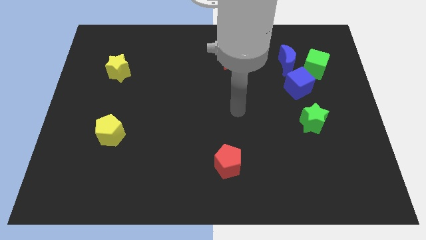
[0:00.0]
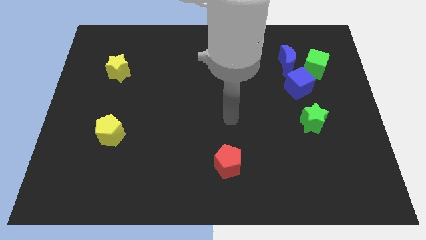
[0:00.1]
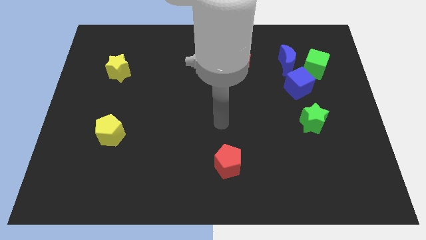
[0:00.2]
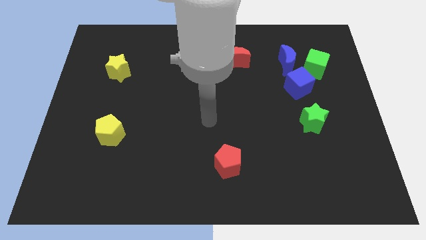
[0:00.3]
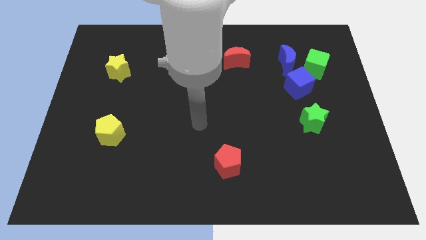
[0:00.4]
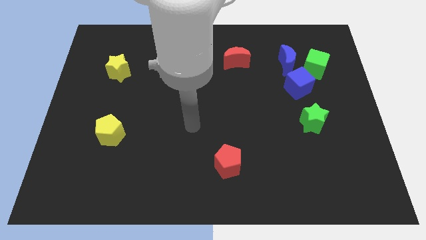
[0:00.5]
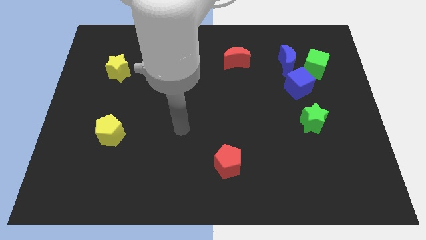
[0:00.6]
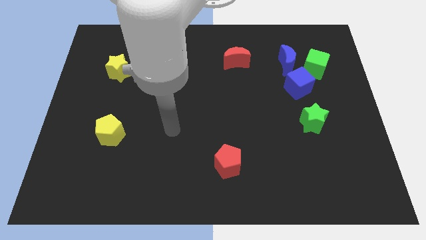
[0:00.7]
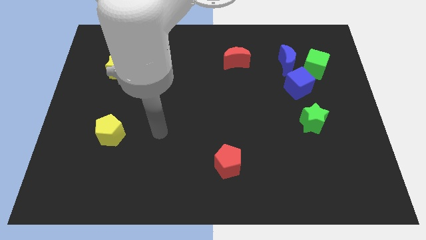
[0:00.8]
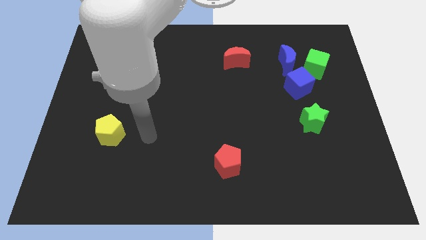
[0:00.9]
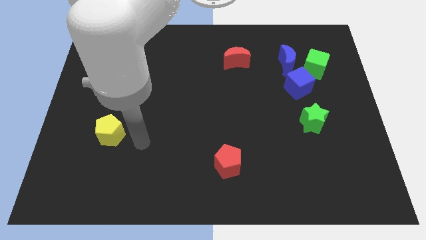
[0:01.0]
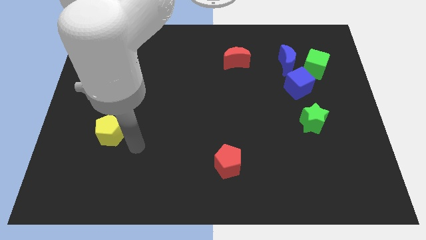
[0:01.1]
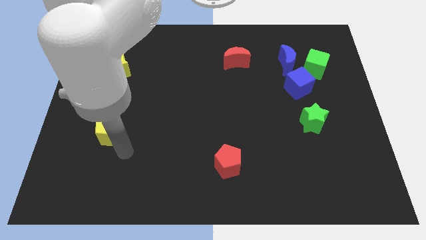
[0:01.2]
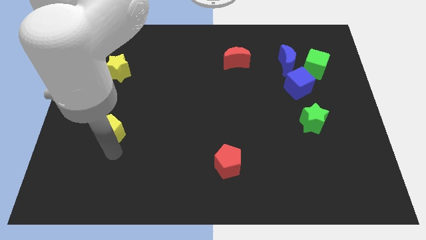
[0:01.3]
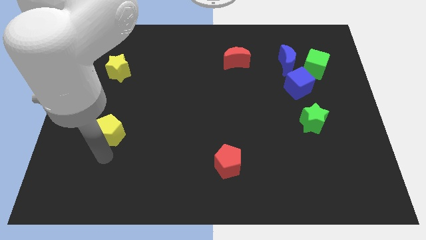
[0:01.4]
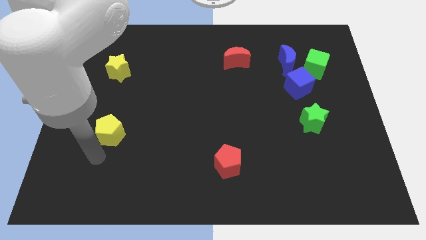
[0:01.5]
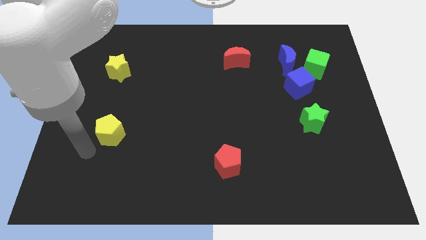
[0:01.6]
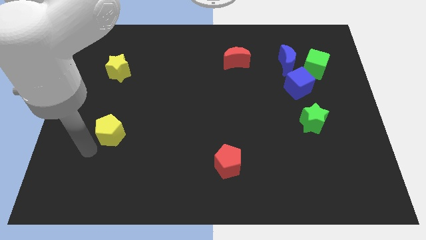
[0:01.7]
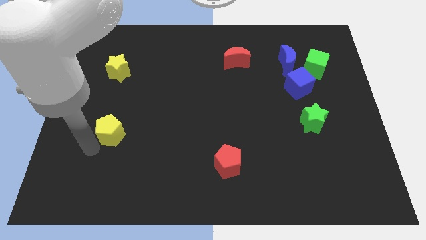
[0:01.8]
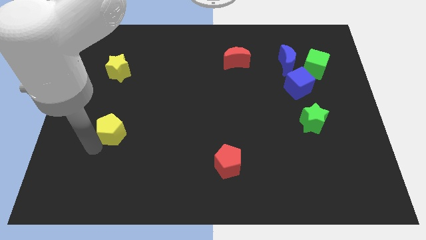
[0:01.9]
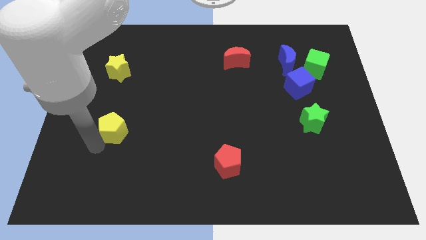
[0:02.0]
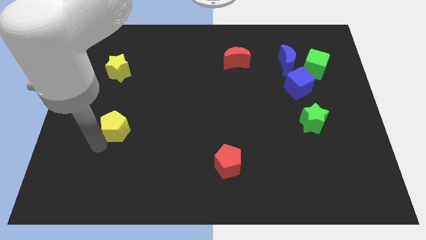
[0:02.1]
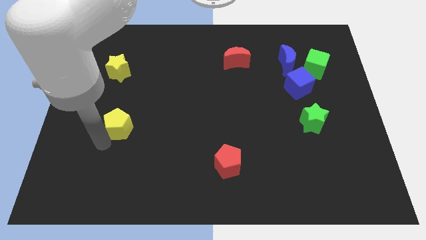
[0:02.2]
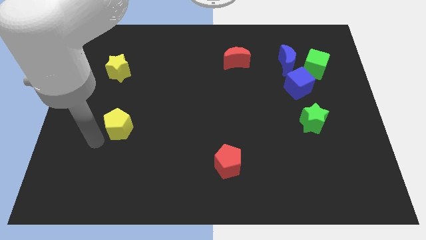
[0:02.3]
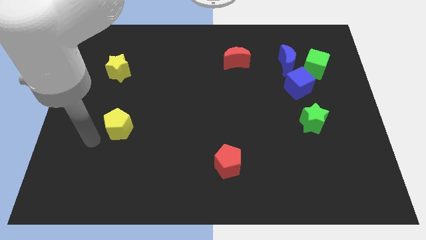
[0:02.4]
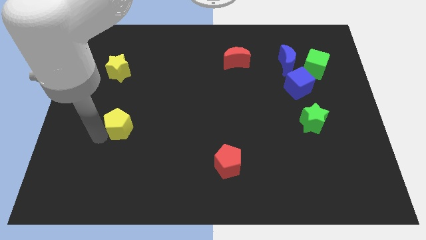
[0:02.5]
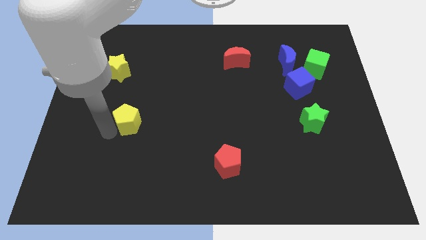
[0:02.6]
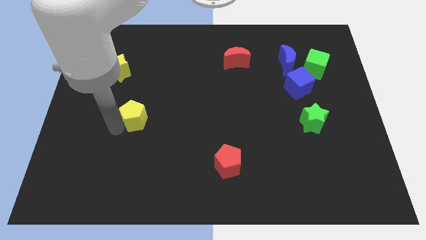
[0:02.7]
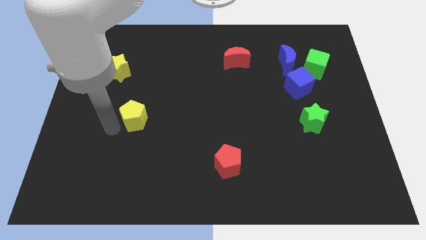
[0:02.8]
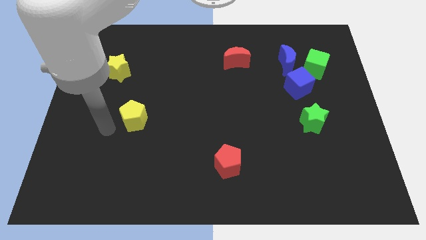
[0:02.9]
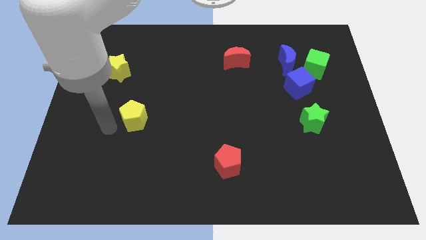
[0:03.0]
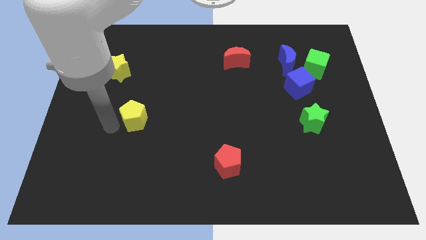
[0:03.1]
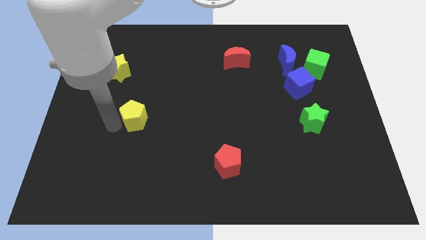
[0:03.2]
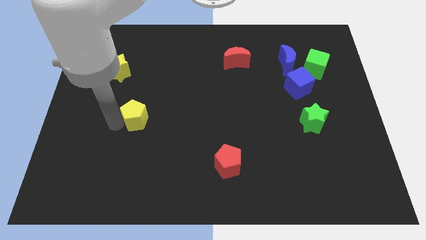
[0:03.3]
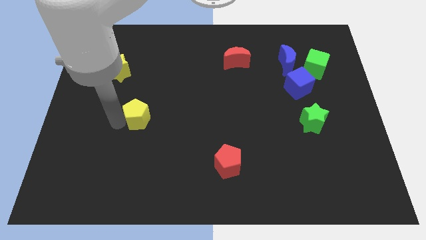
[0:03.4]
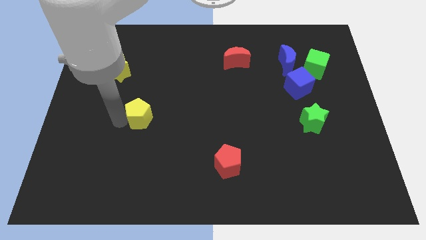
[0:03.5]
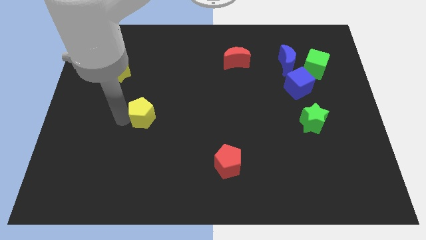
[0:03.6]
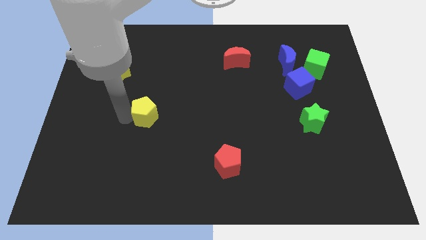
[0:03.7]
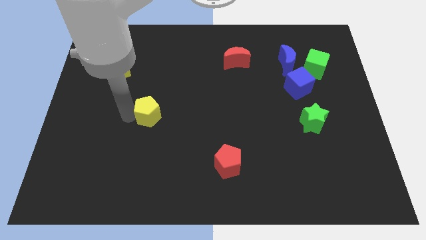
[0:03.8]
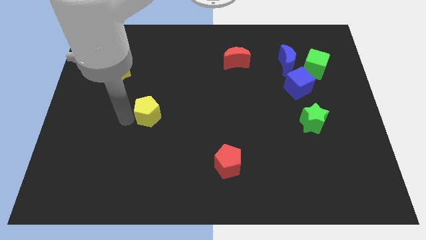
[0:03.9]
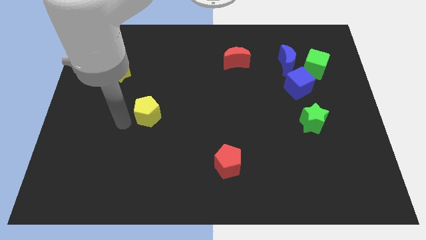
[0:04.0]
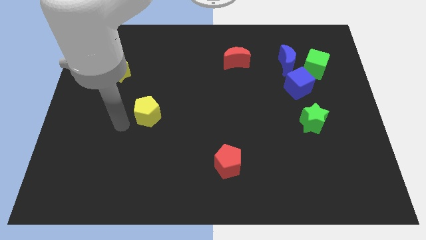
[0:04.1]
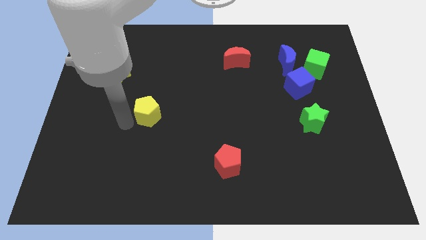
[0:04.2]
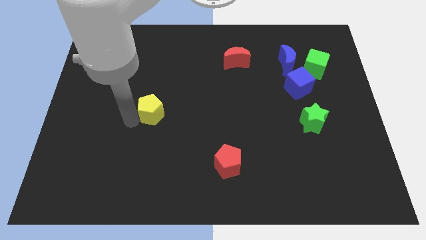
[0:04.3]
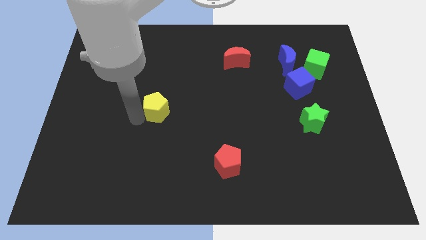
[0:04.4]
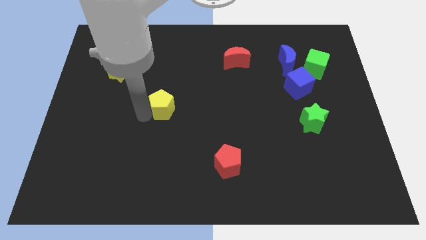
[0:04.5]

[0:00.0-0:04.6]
push the yellow pentagon to the center

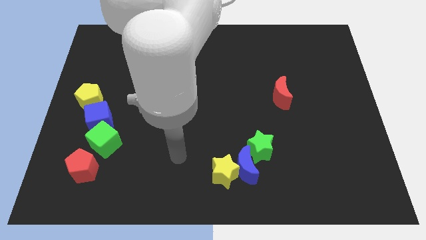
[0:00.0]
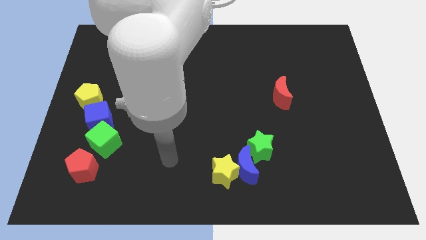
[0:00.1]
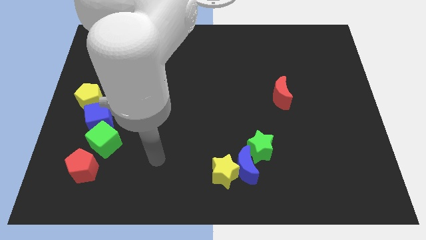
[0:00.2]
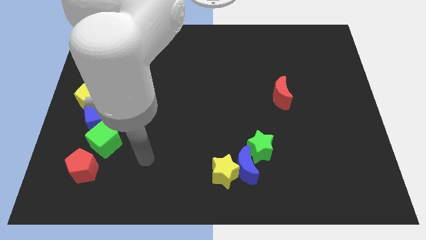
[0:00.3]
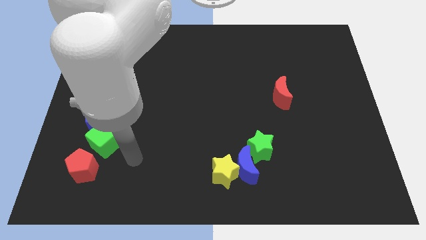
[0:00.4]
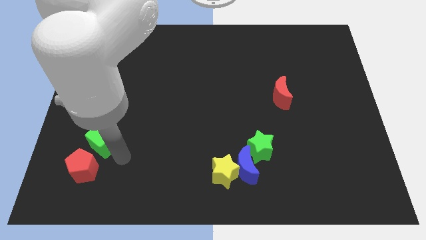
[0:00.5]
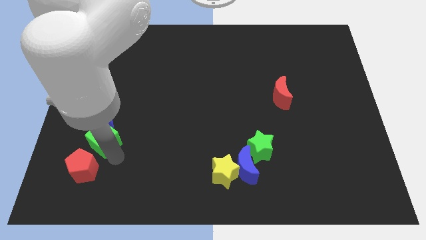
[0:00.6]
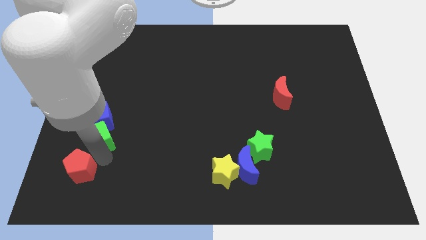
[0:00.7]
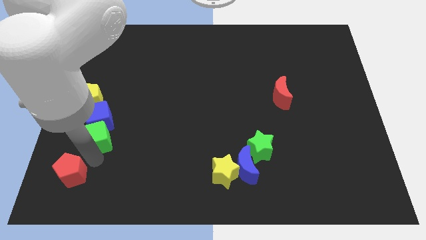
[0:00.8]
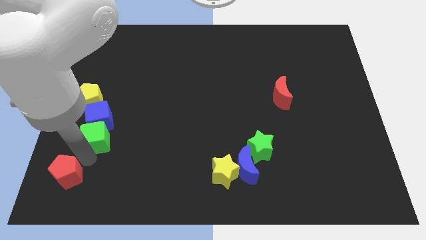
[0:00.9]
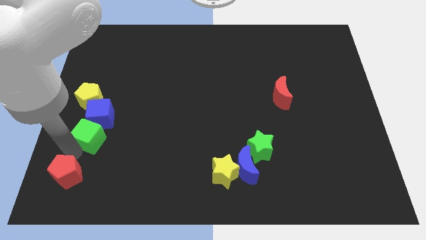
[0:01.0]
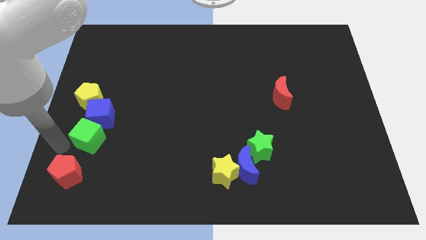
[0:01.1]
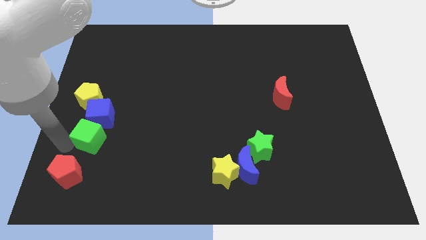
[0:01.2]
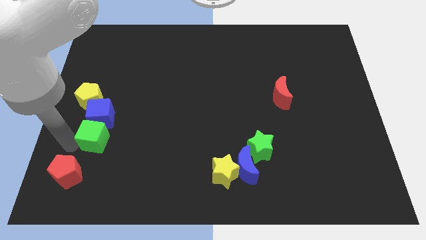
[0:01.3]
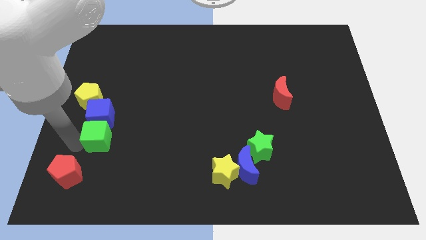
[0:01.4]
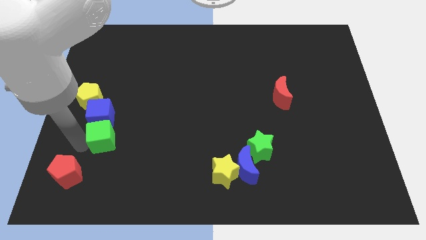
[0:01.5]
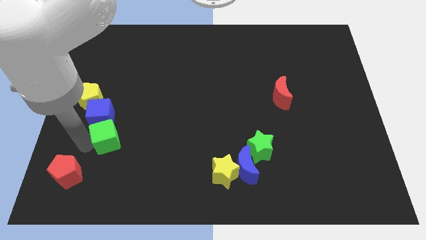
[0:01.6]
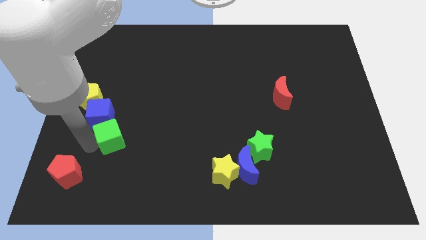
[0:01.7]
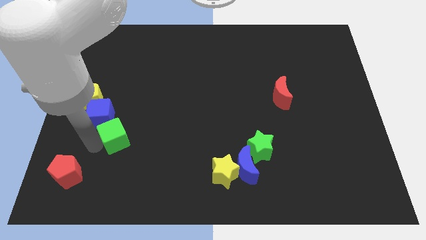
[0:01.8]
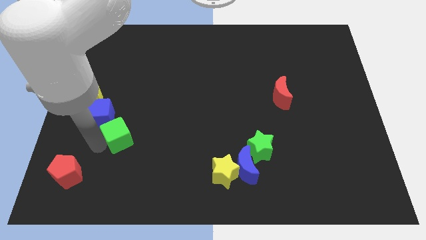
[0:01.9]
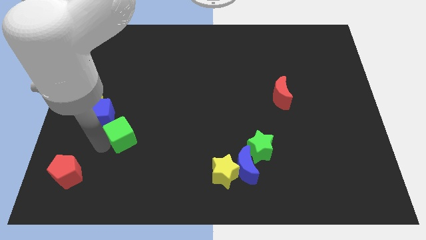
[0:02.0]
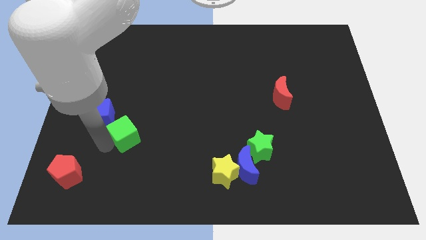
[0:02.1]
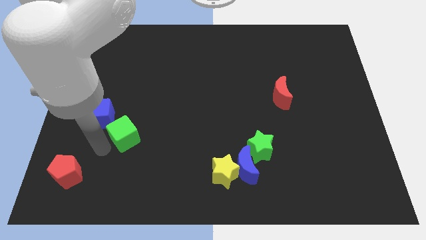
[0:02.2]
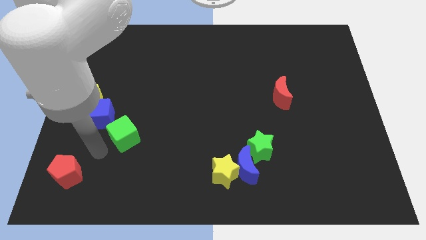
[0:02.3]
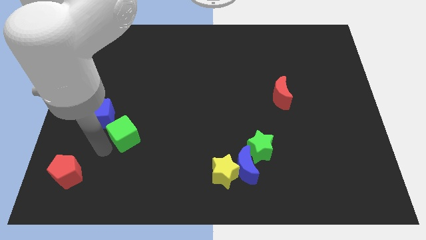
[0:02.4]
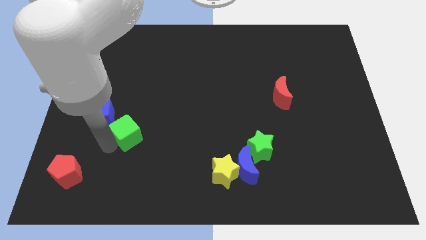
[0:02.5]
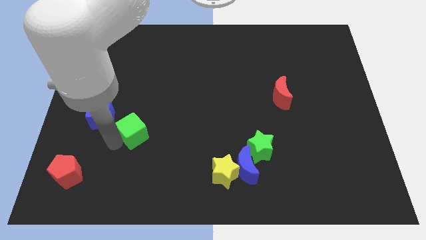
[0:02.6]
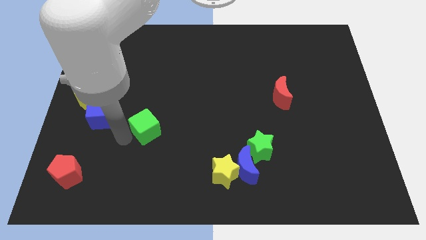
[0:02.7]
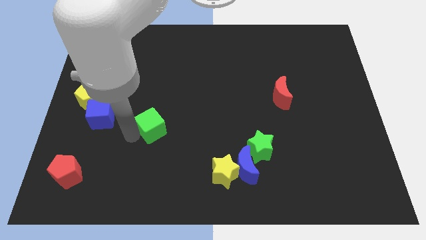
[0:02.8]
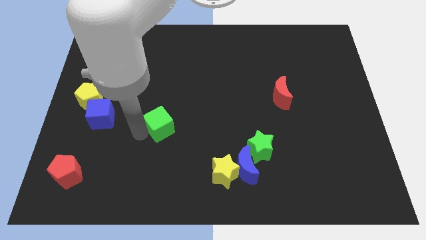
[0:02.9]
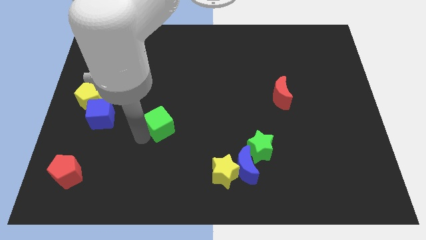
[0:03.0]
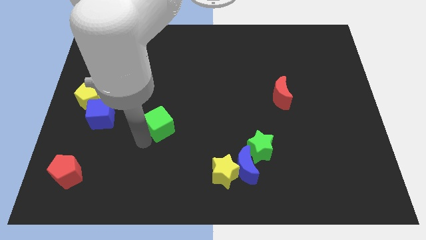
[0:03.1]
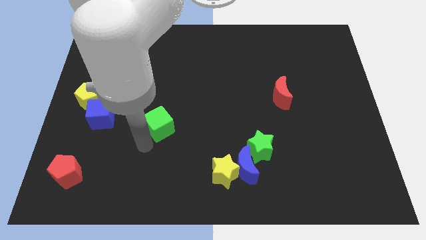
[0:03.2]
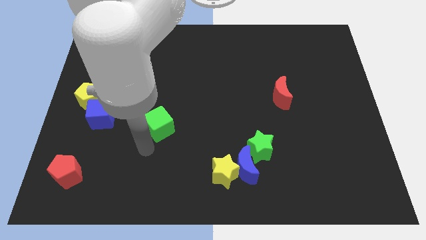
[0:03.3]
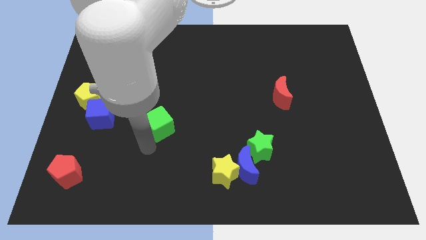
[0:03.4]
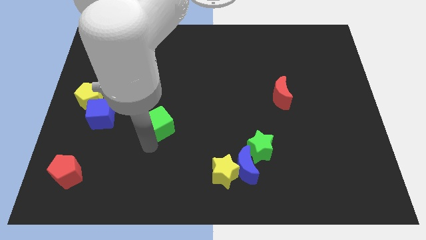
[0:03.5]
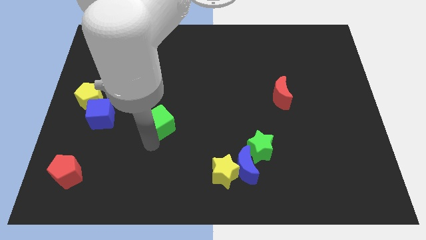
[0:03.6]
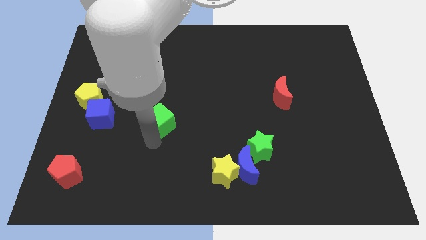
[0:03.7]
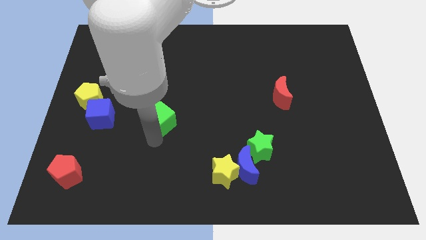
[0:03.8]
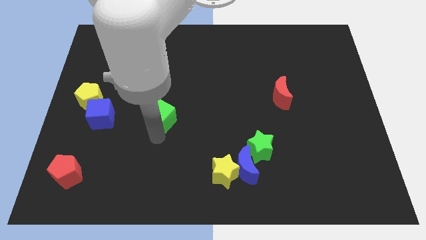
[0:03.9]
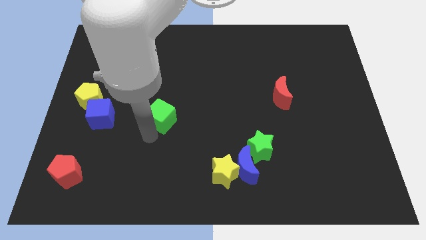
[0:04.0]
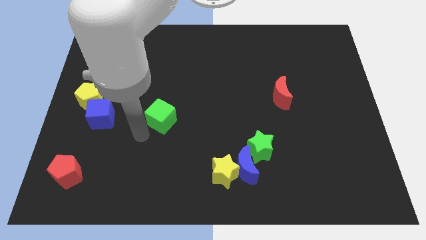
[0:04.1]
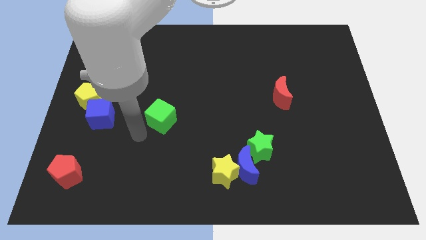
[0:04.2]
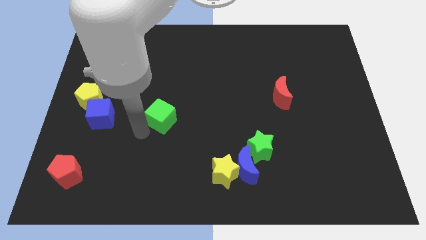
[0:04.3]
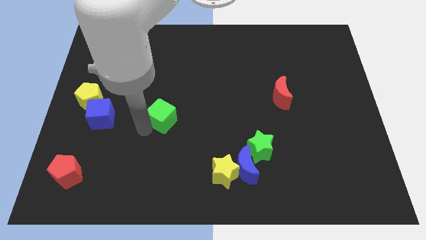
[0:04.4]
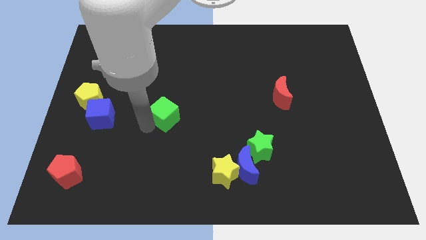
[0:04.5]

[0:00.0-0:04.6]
slide the green cube to the middle of the board
